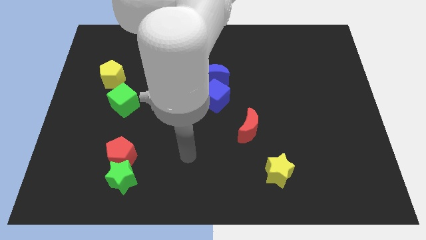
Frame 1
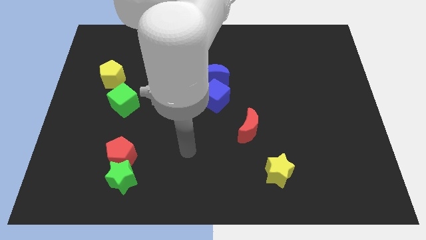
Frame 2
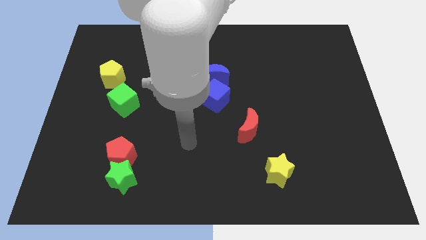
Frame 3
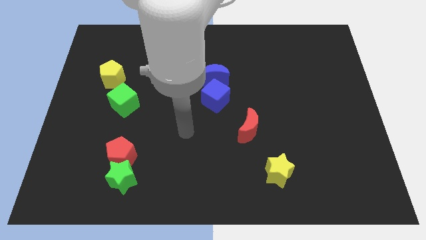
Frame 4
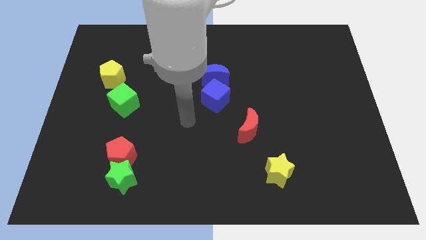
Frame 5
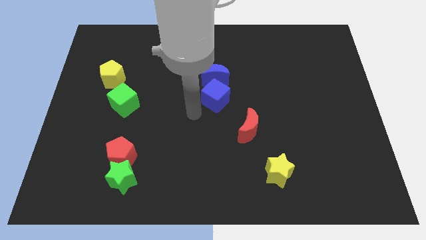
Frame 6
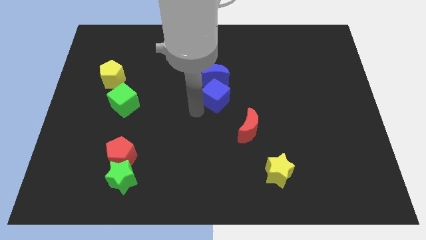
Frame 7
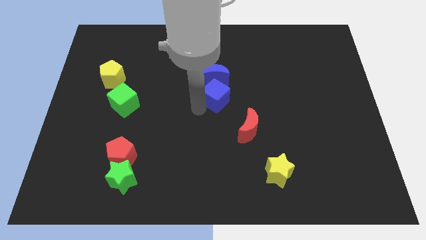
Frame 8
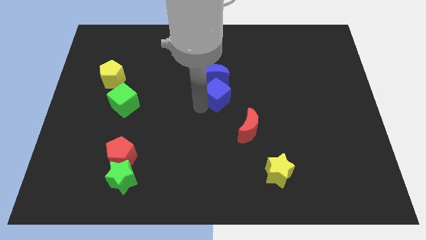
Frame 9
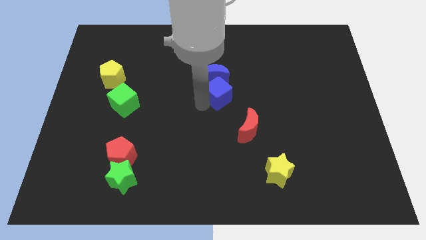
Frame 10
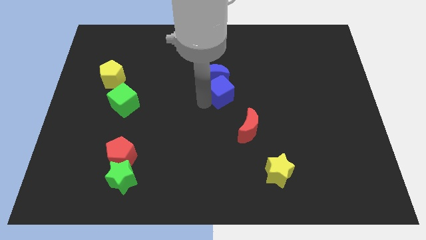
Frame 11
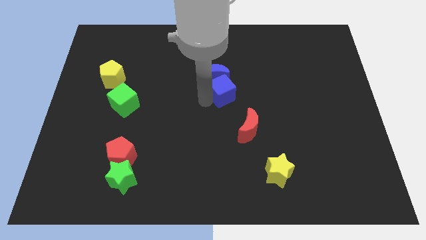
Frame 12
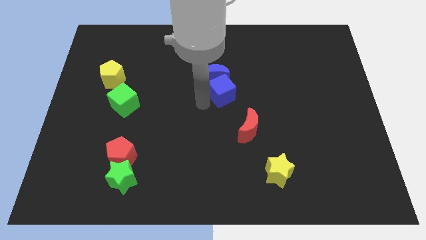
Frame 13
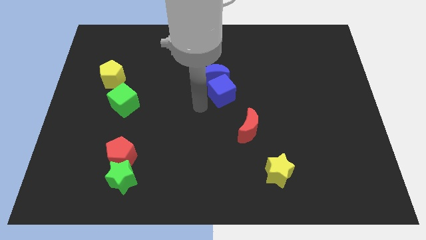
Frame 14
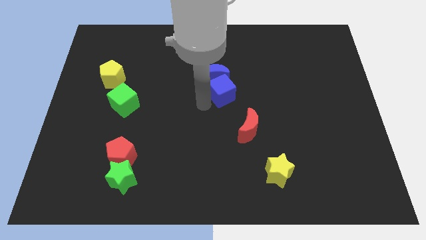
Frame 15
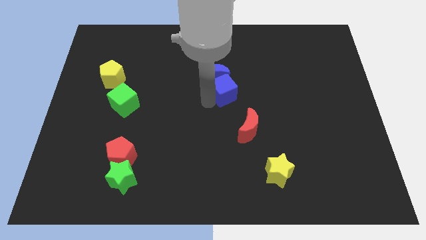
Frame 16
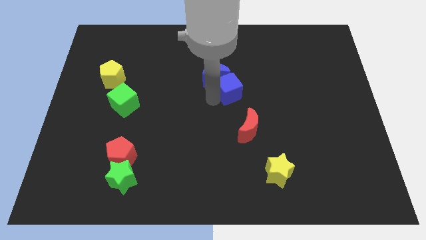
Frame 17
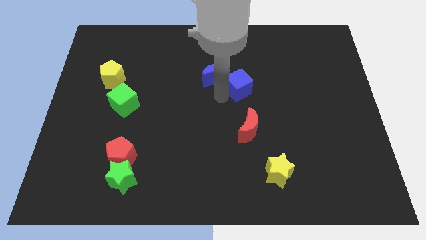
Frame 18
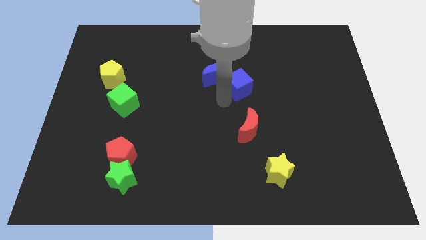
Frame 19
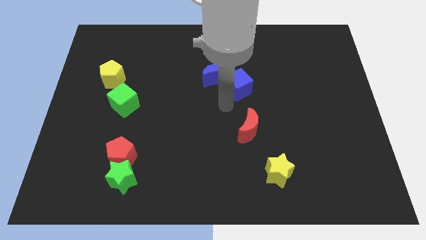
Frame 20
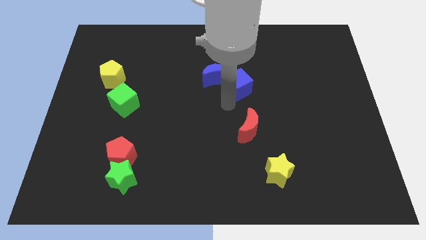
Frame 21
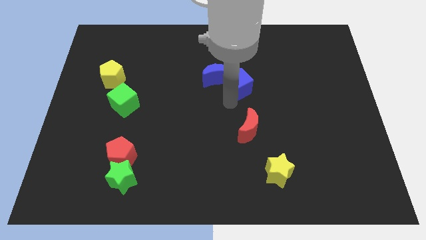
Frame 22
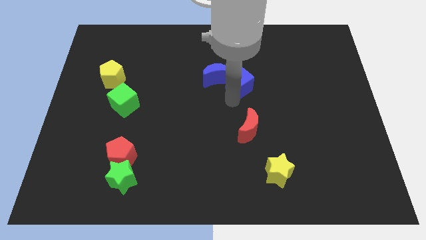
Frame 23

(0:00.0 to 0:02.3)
slightly move the blue cube up and then to the right

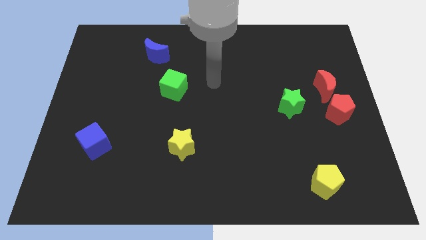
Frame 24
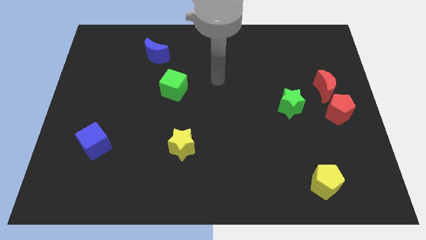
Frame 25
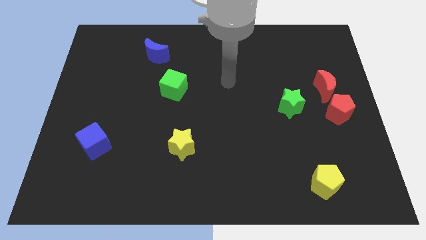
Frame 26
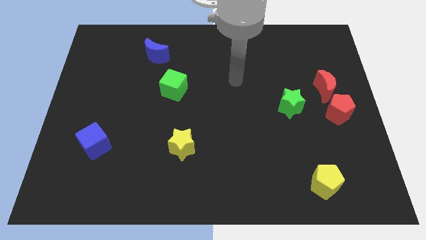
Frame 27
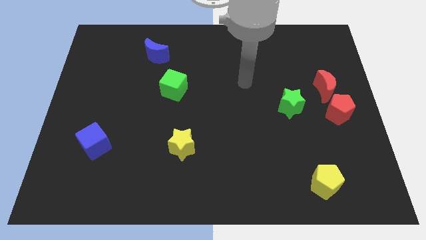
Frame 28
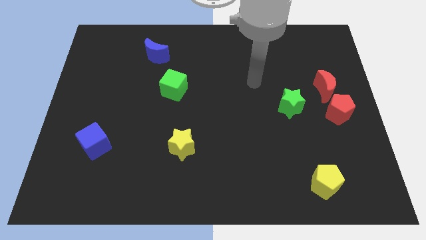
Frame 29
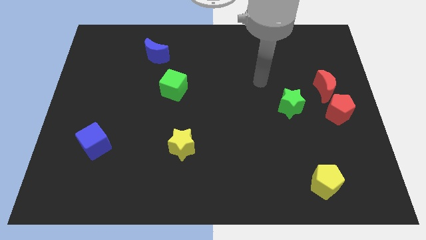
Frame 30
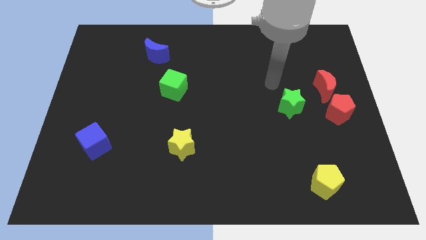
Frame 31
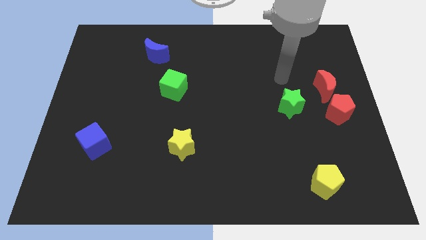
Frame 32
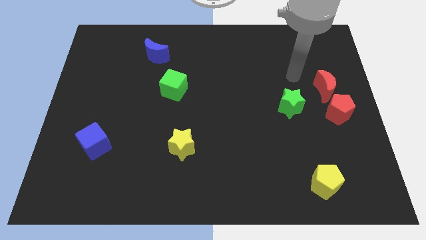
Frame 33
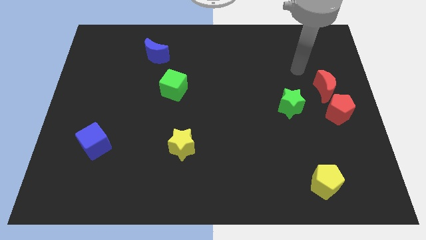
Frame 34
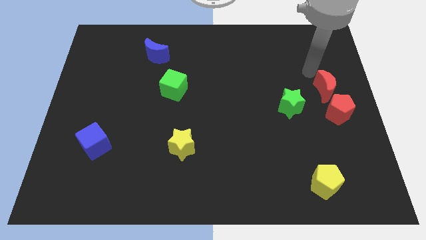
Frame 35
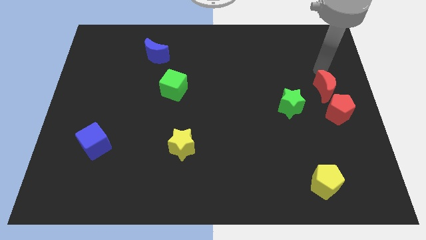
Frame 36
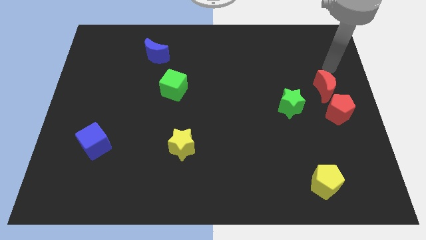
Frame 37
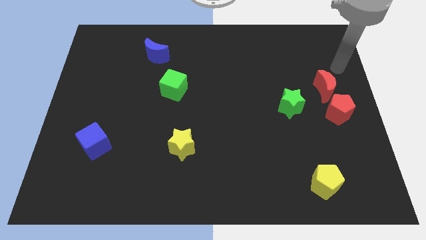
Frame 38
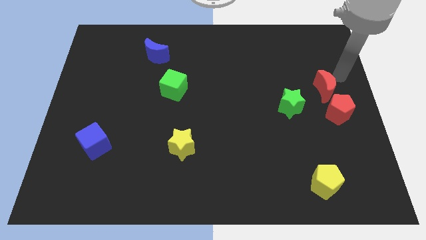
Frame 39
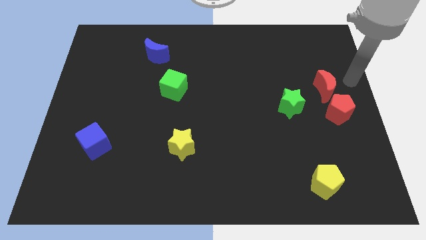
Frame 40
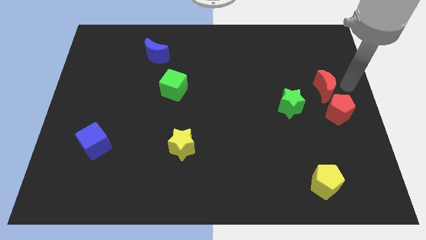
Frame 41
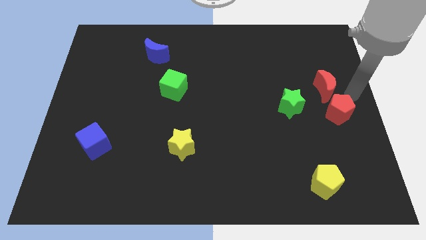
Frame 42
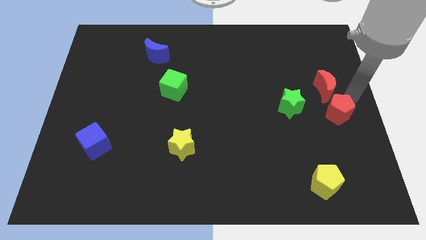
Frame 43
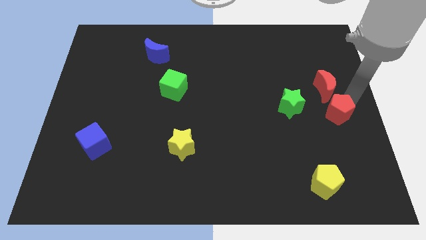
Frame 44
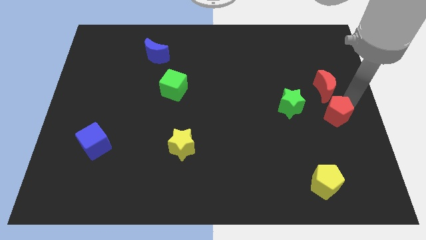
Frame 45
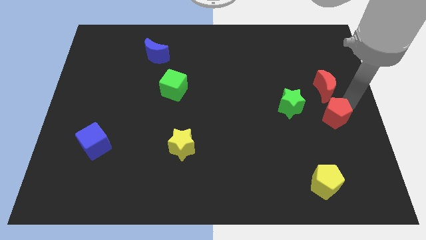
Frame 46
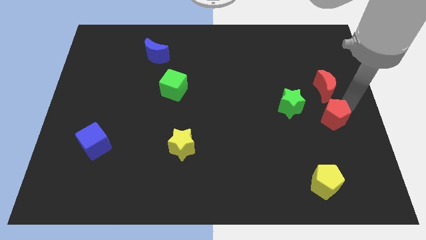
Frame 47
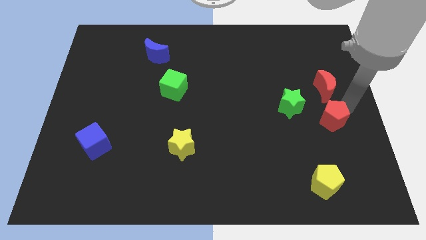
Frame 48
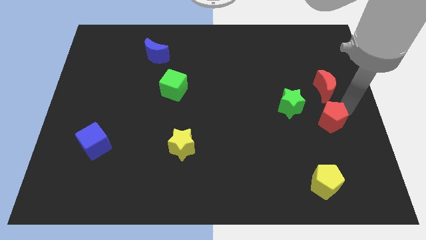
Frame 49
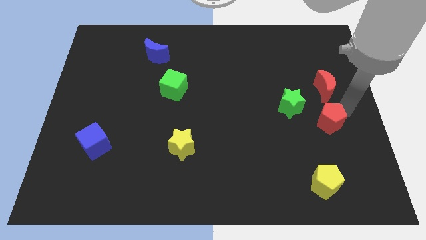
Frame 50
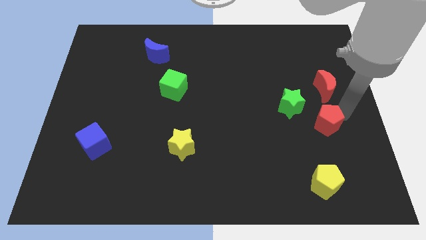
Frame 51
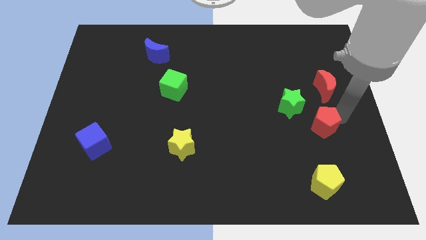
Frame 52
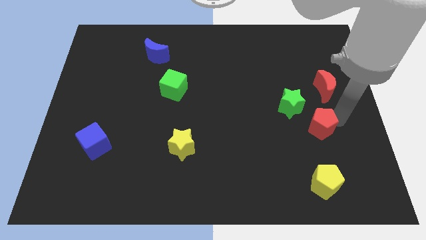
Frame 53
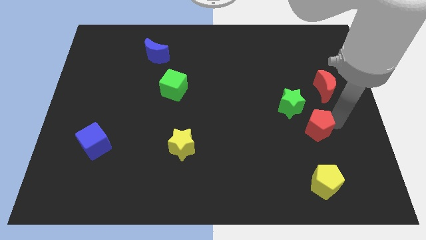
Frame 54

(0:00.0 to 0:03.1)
push the red pentagon a little bit downwards and to the left

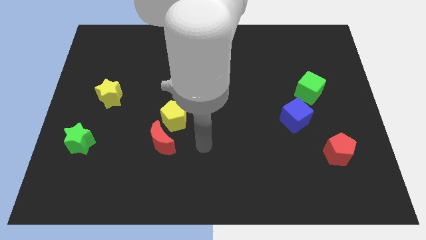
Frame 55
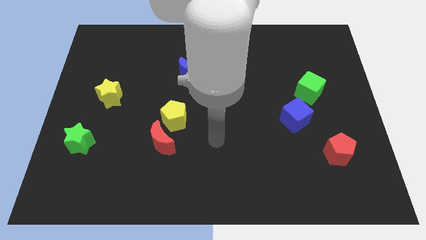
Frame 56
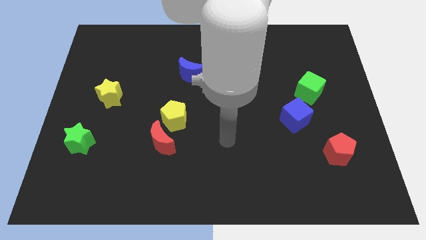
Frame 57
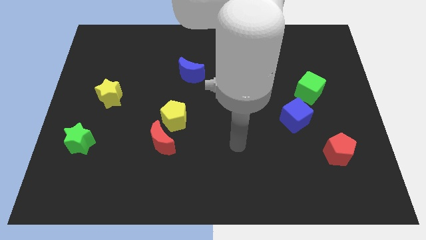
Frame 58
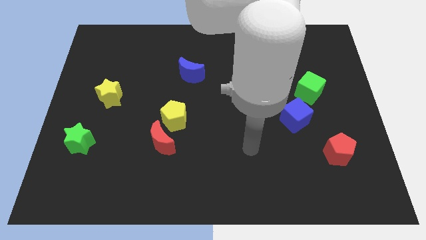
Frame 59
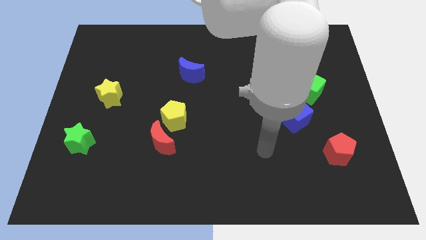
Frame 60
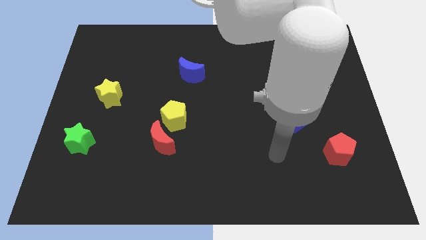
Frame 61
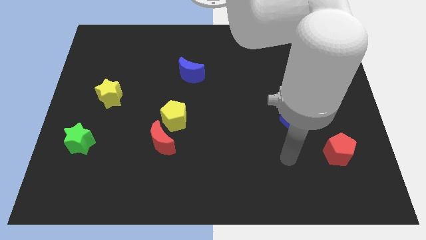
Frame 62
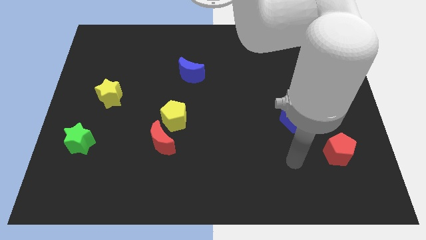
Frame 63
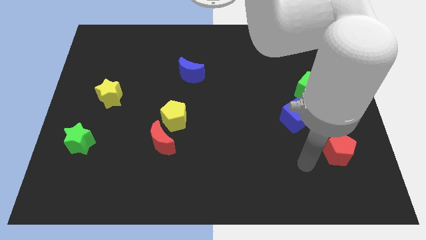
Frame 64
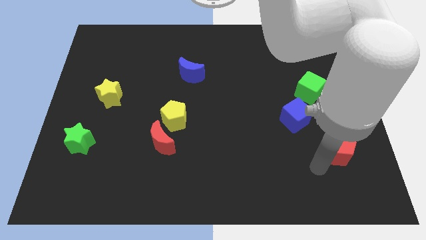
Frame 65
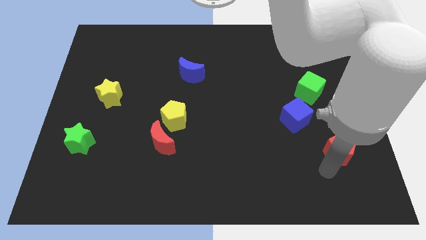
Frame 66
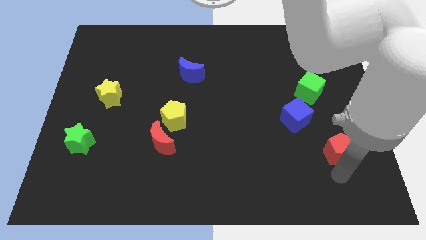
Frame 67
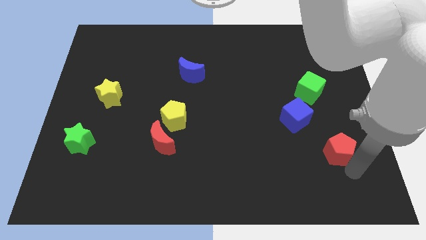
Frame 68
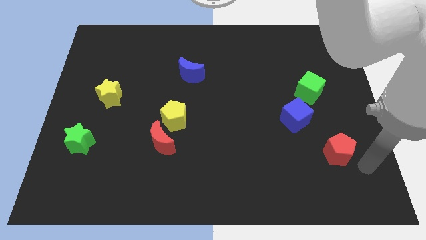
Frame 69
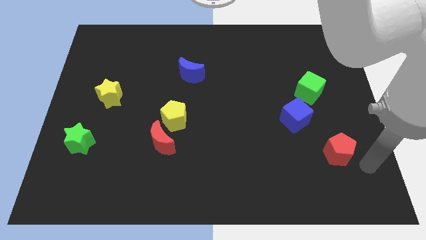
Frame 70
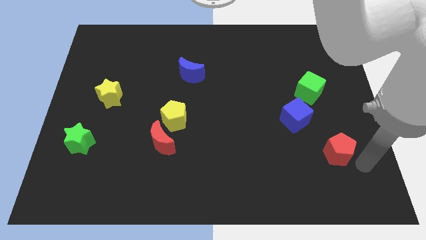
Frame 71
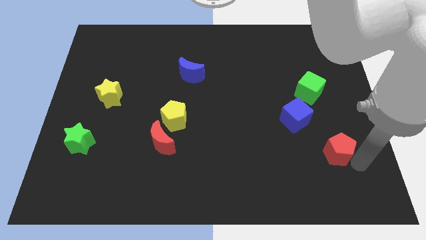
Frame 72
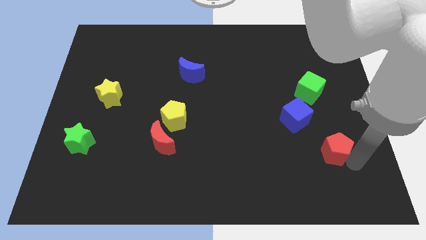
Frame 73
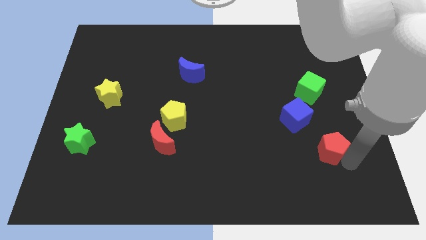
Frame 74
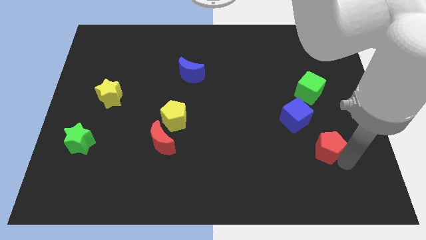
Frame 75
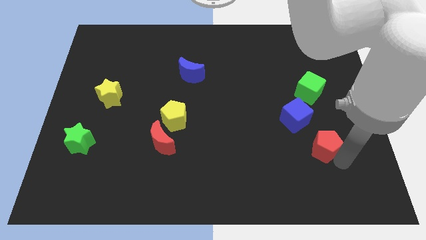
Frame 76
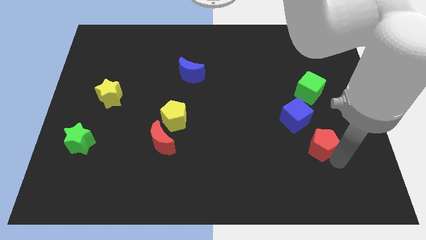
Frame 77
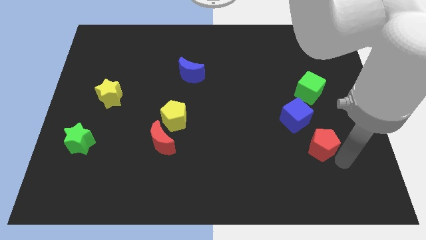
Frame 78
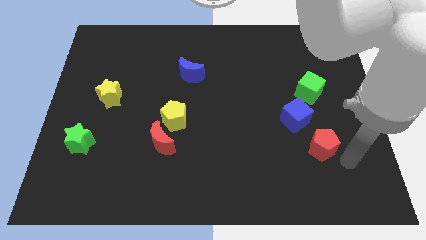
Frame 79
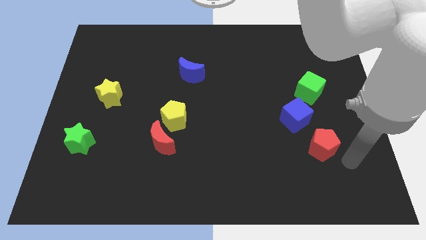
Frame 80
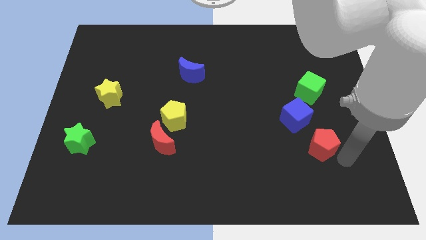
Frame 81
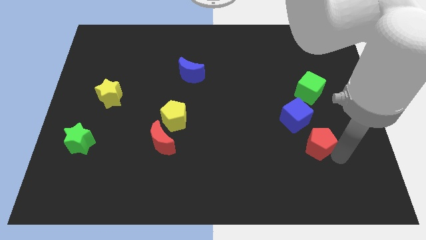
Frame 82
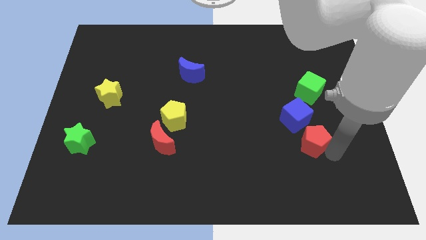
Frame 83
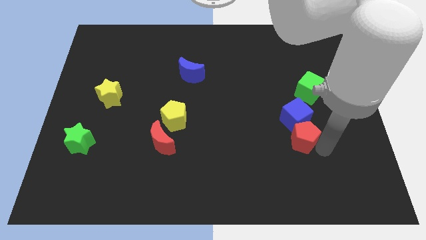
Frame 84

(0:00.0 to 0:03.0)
slide the red pentagon upwards and to the left diagonally a little bit
